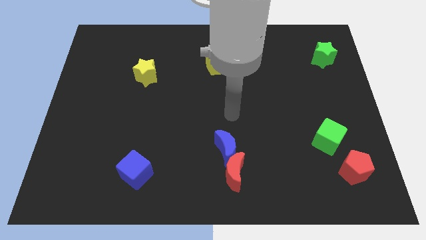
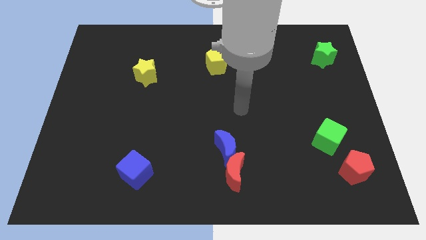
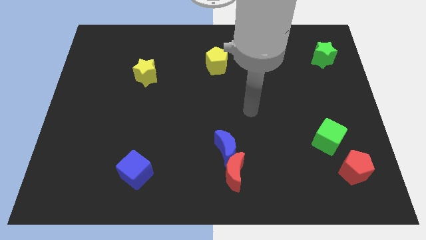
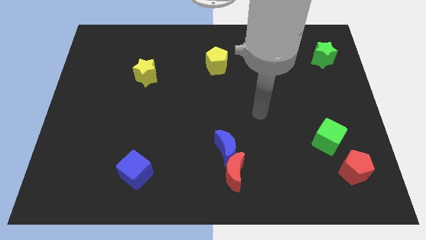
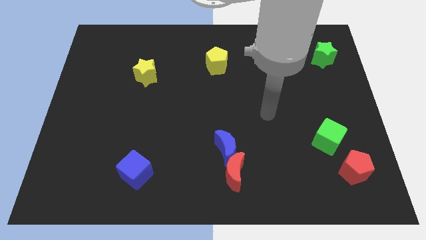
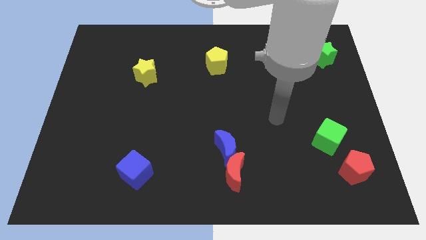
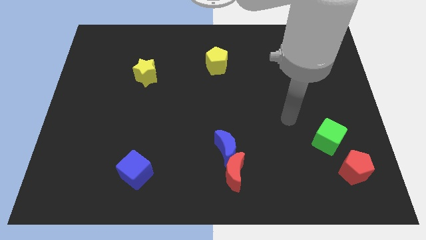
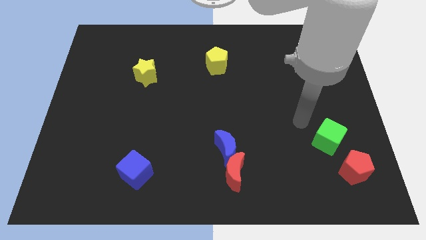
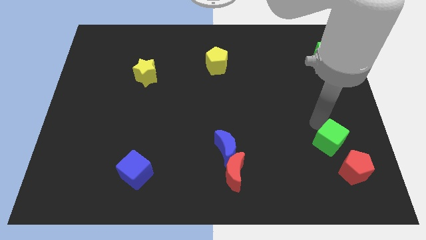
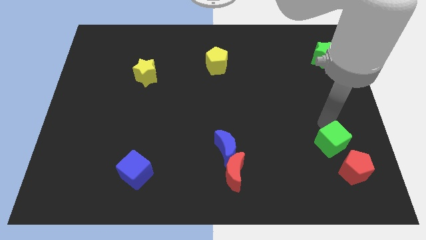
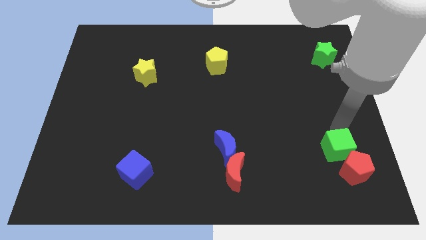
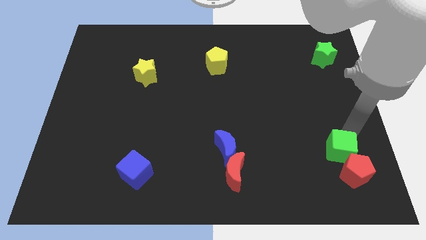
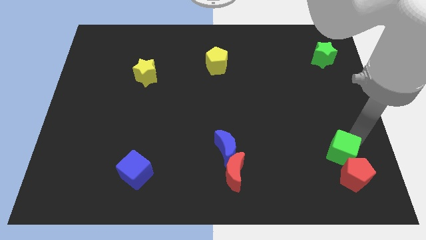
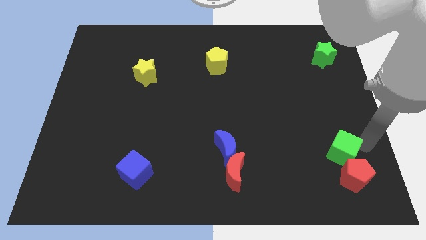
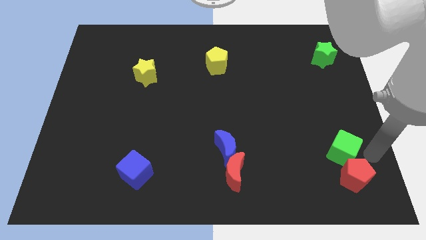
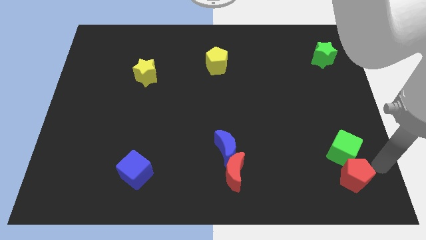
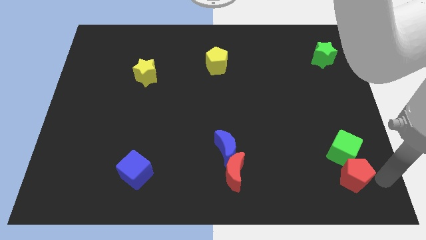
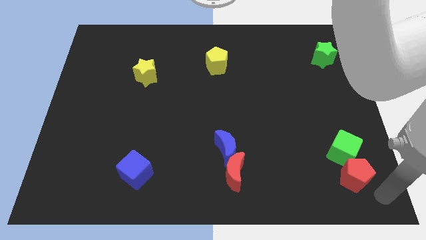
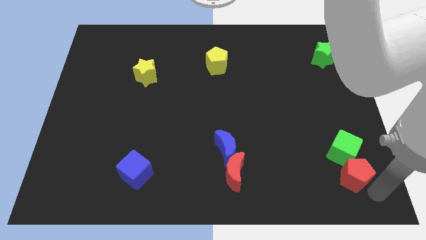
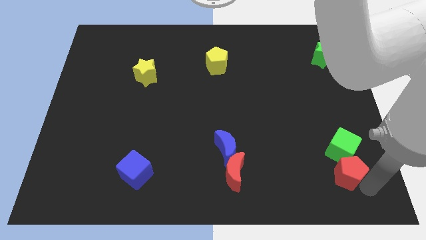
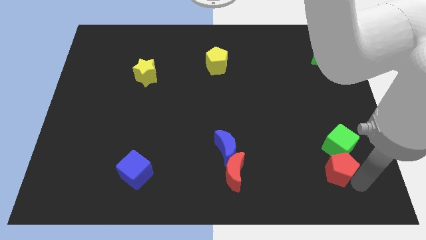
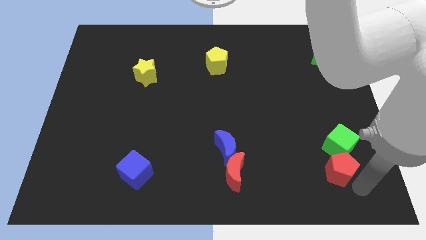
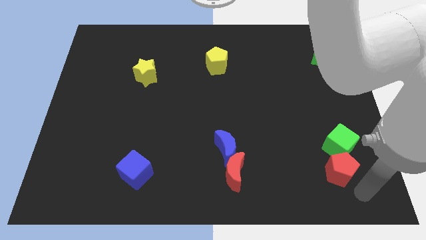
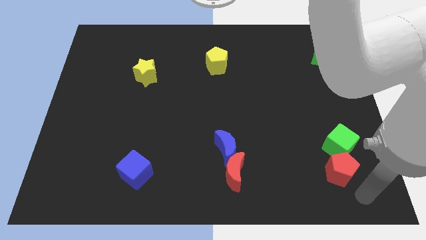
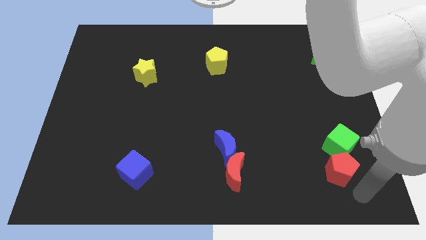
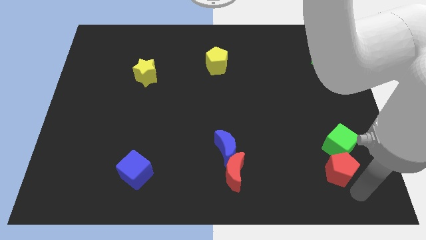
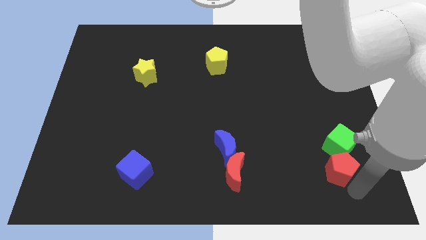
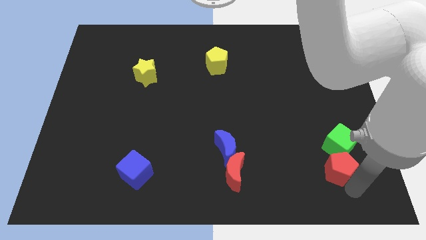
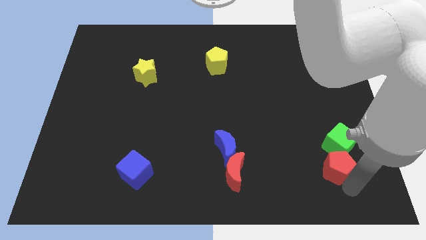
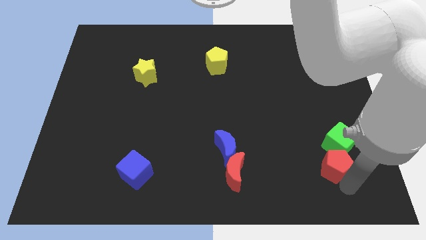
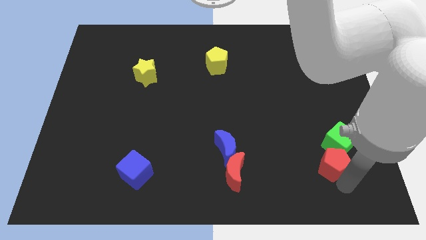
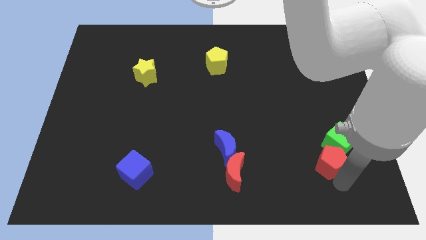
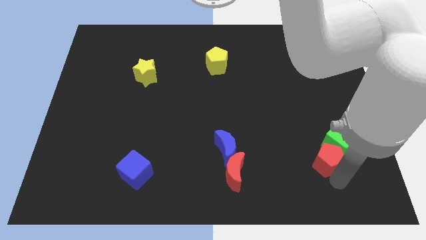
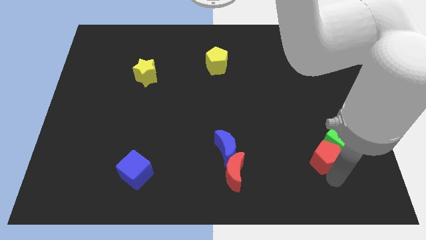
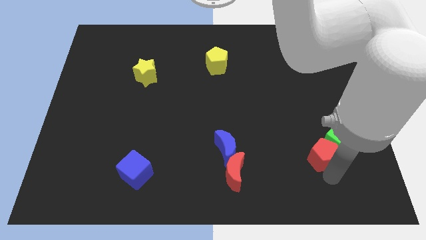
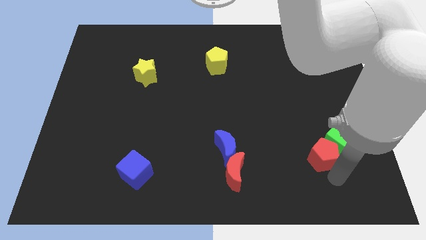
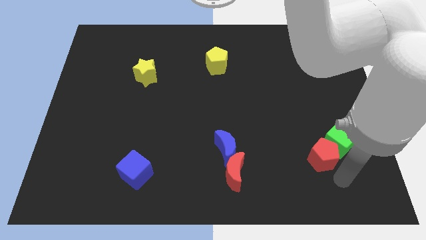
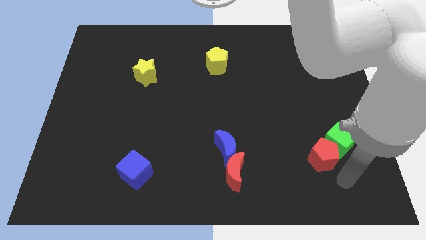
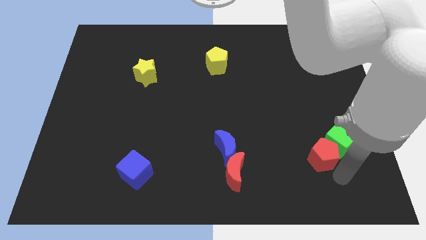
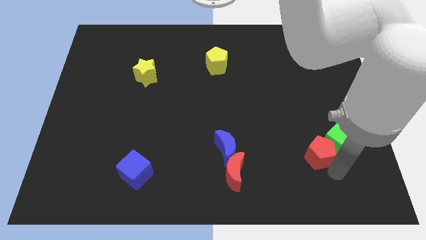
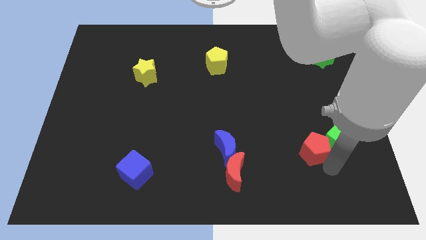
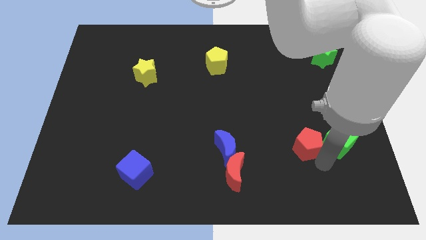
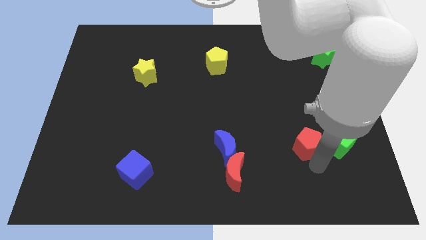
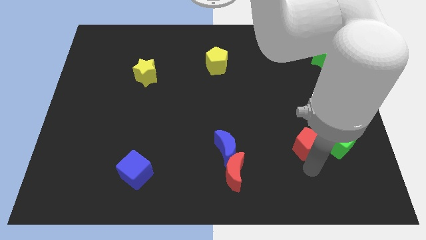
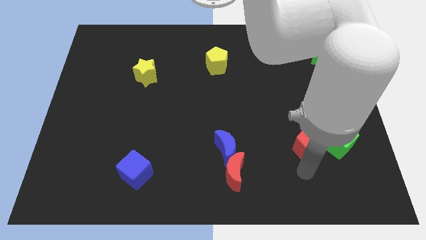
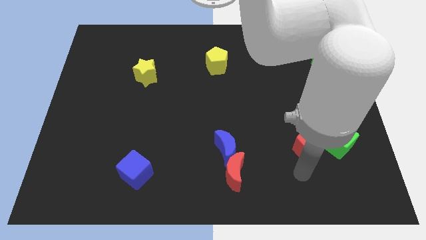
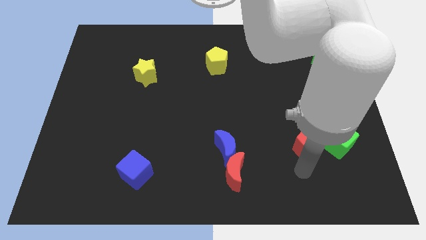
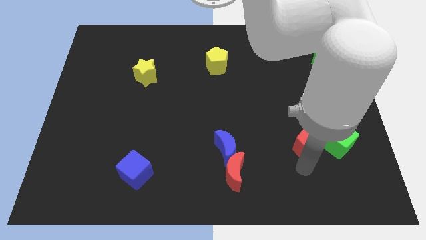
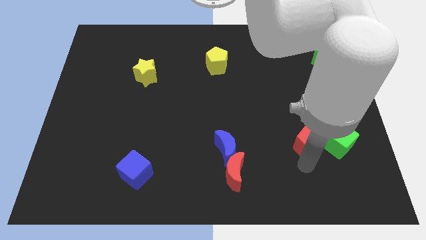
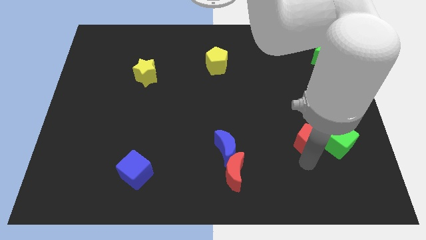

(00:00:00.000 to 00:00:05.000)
slide the red pentagon to the top left side of the green cube

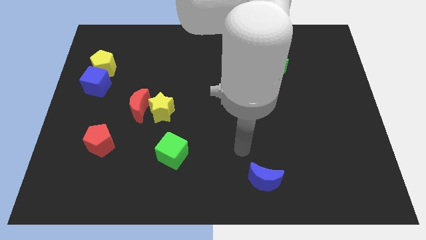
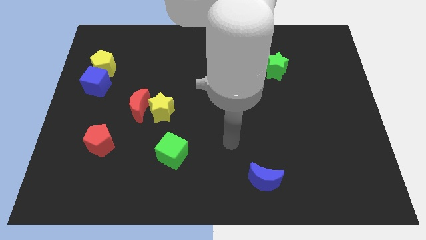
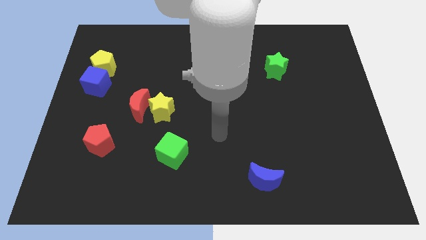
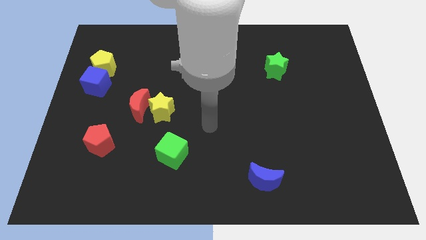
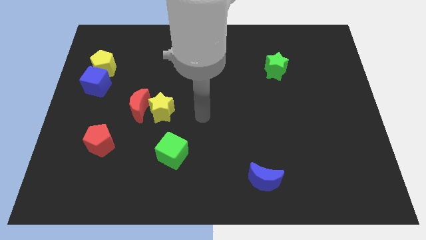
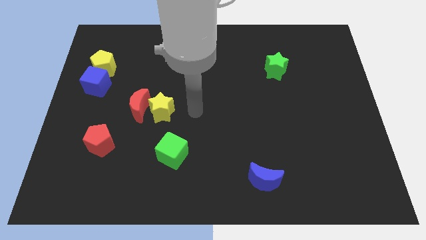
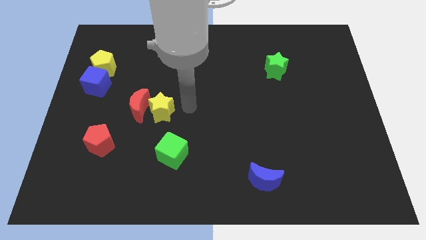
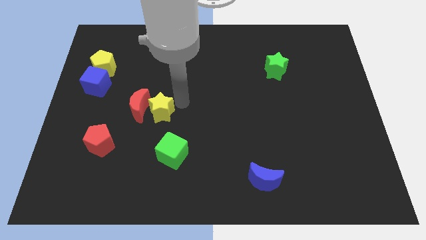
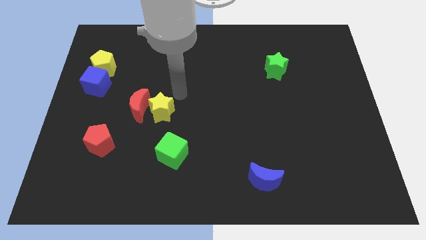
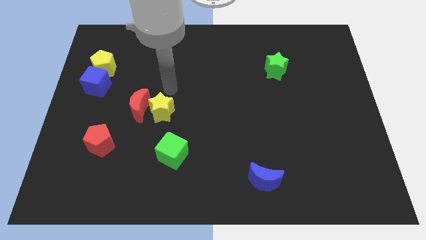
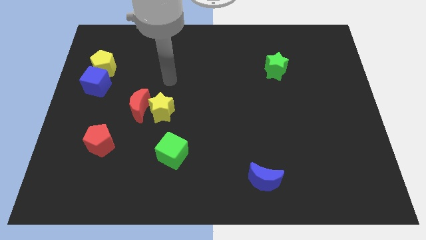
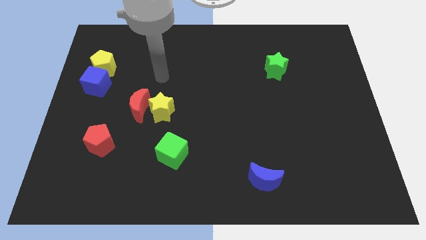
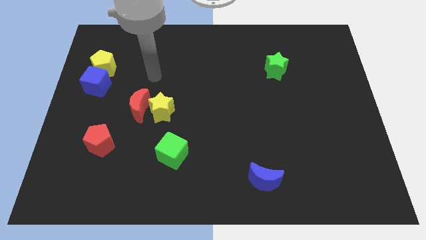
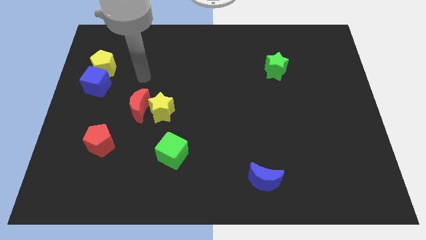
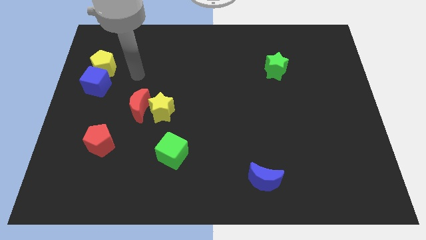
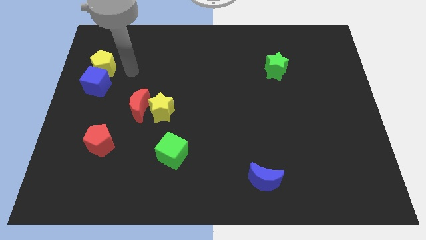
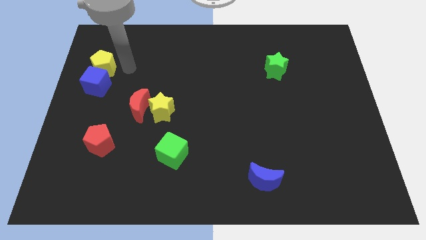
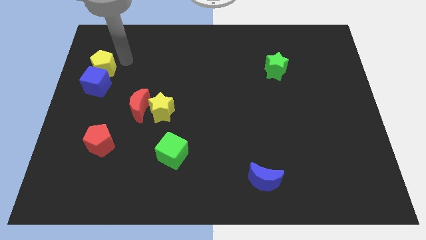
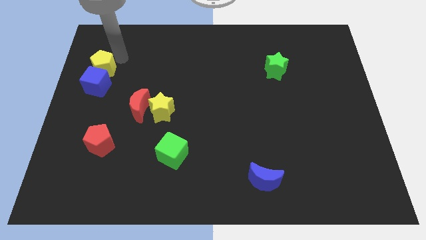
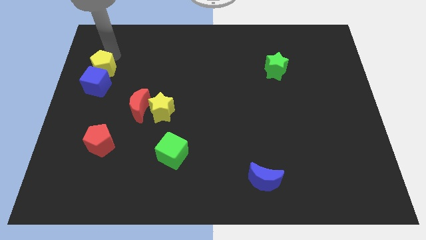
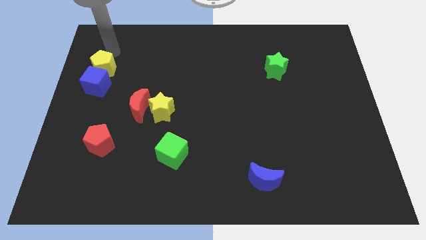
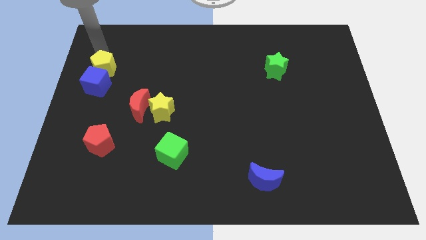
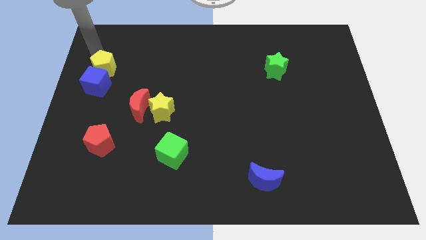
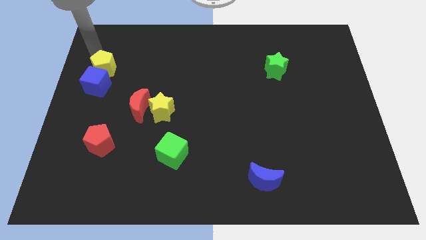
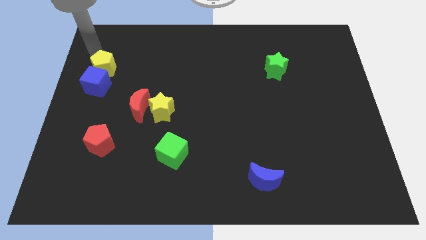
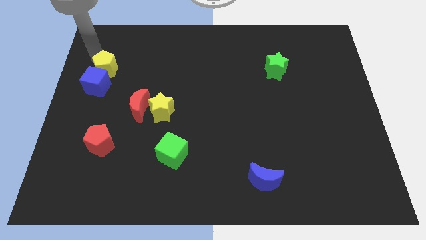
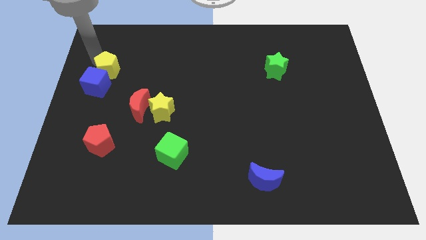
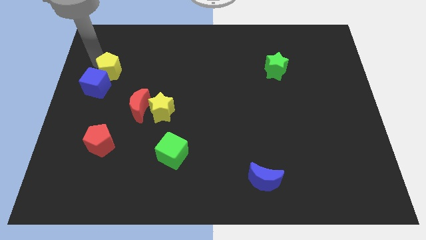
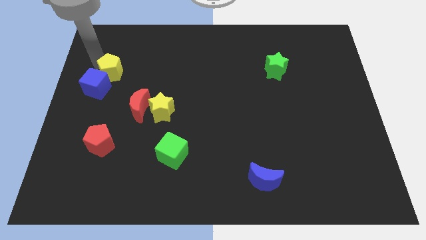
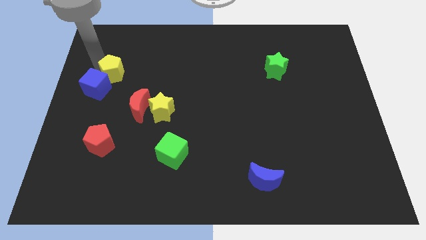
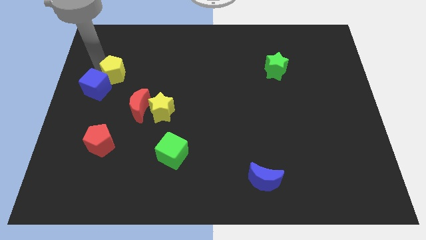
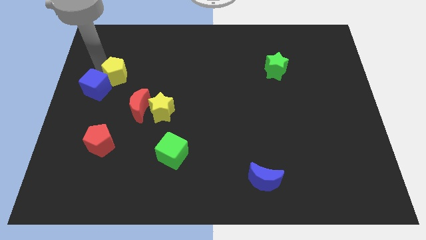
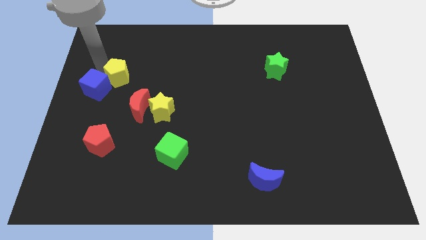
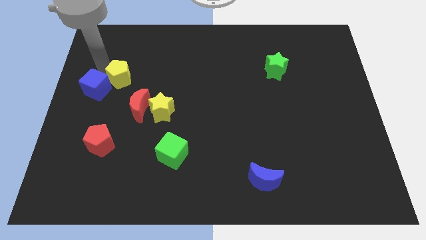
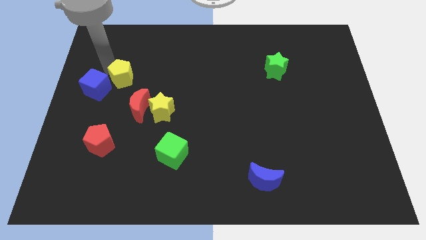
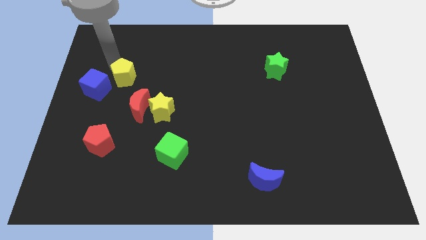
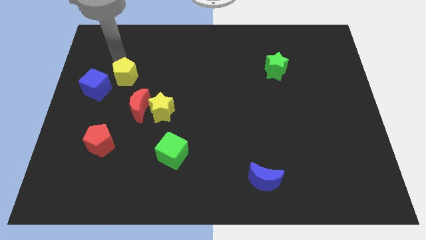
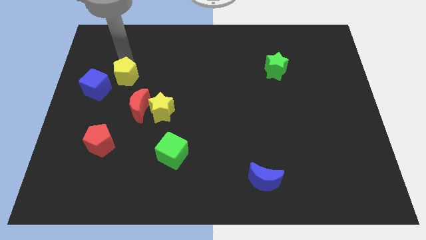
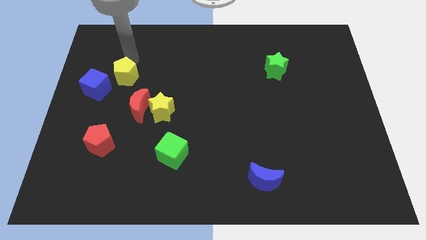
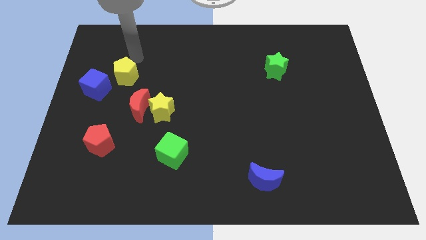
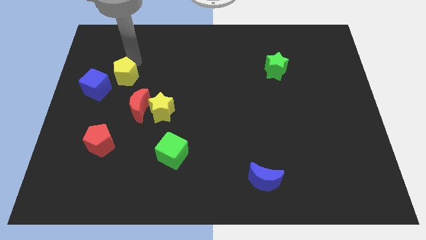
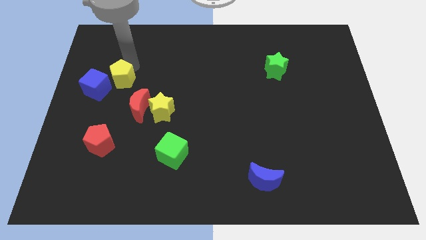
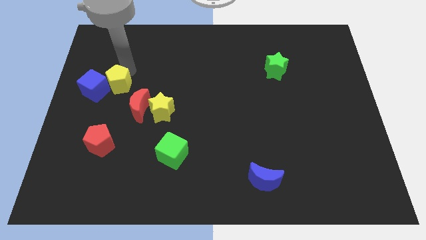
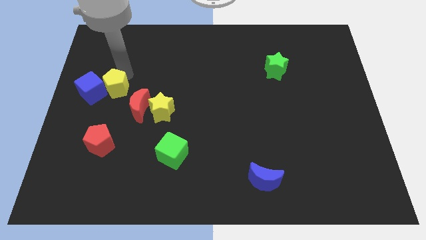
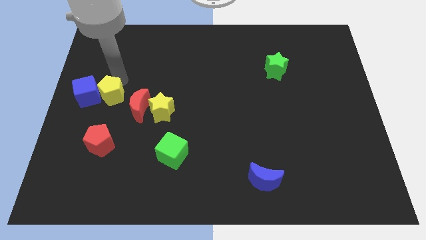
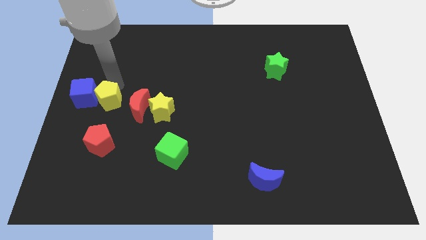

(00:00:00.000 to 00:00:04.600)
move the yellow pentagon to the left of the yellow star
